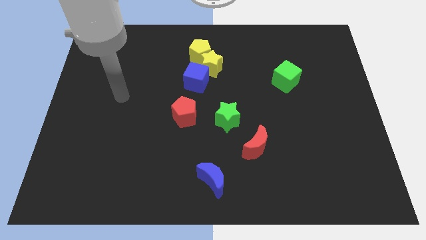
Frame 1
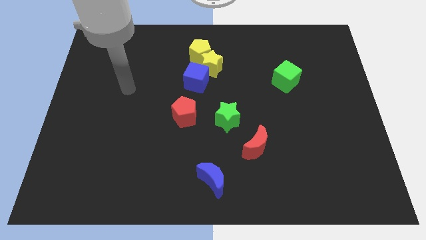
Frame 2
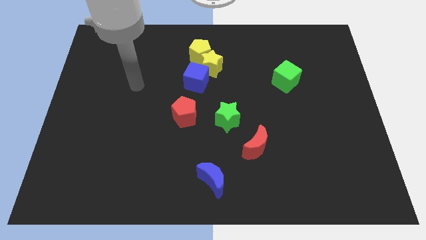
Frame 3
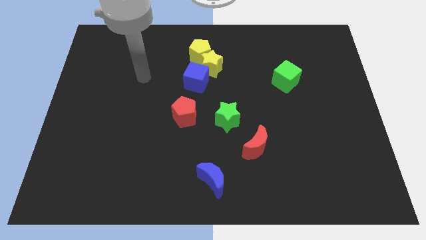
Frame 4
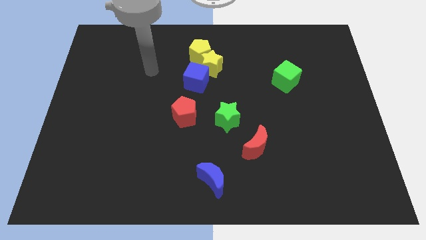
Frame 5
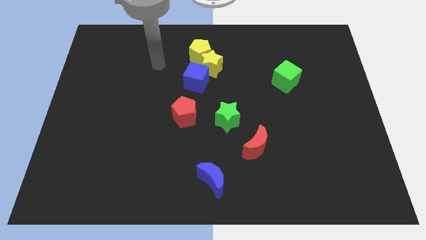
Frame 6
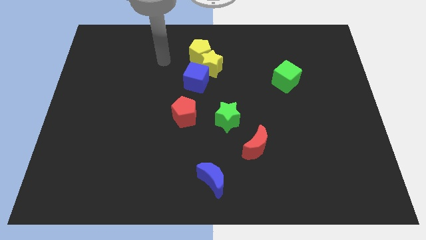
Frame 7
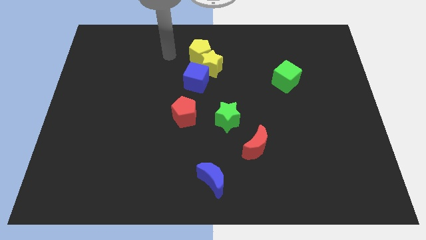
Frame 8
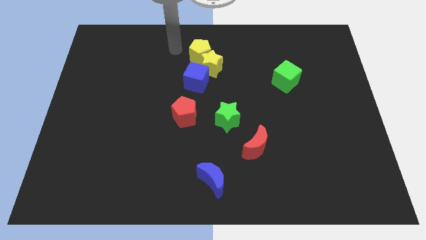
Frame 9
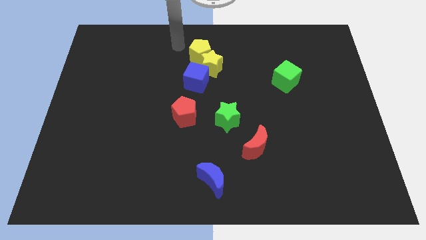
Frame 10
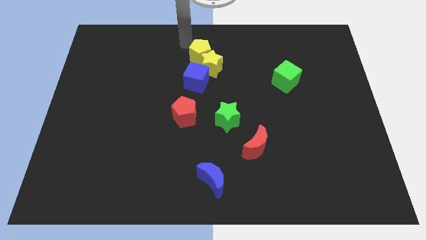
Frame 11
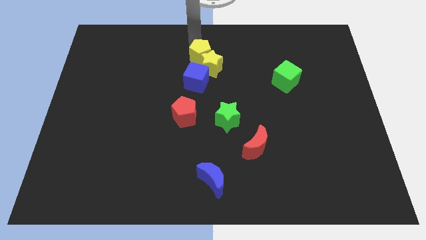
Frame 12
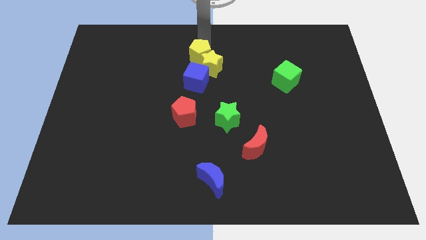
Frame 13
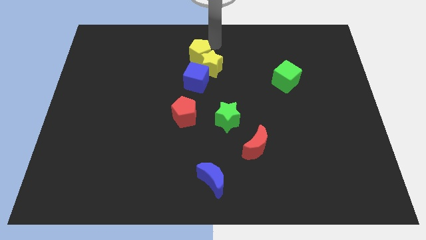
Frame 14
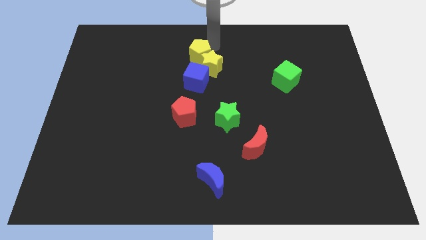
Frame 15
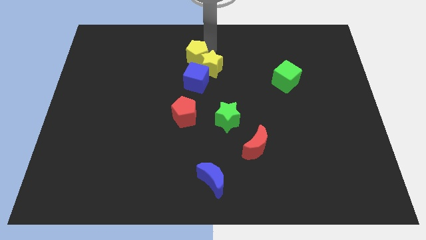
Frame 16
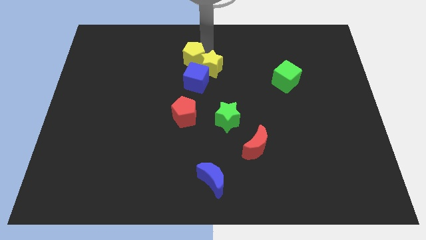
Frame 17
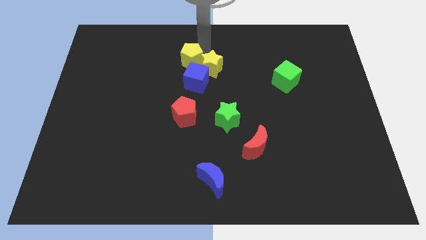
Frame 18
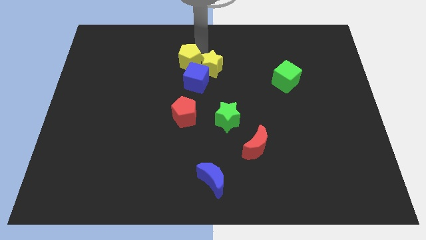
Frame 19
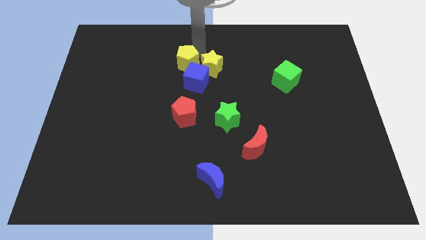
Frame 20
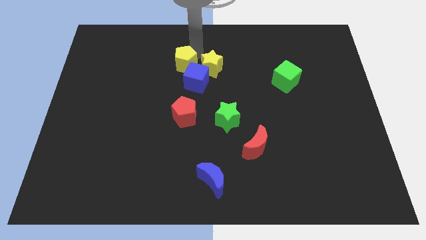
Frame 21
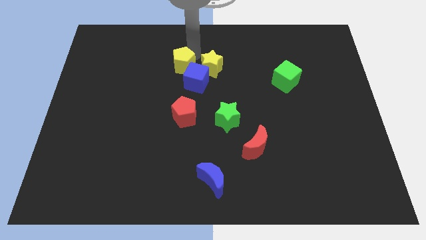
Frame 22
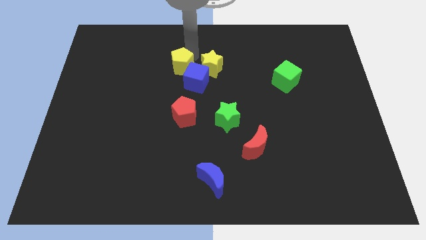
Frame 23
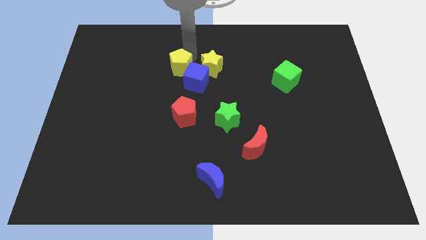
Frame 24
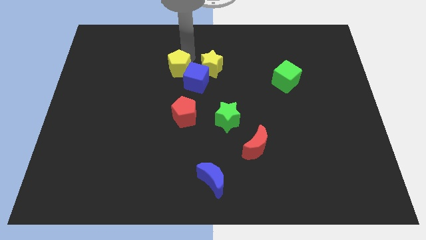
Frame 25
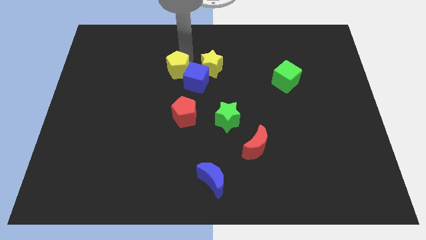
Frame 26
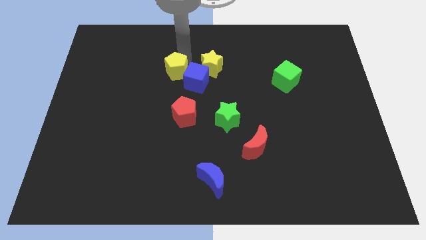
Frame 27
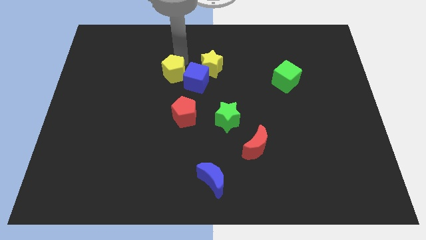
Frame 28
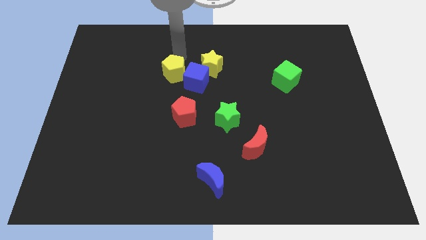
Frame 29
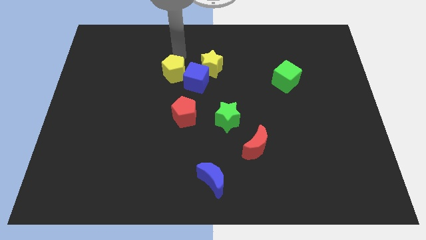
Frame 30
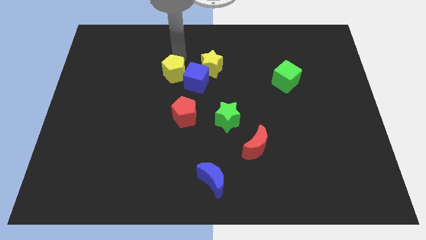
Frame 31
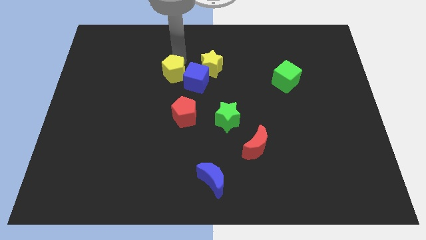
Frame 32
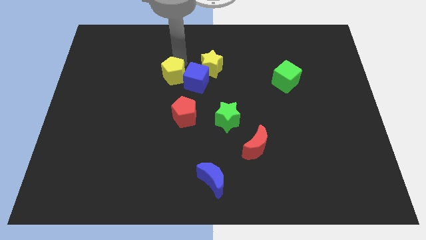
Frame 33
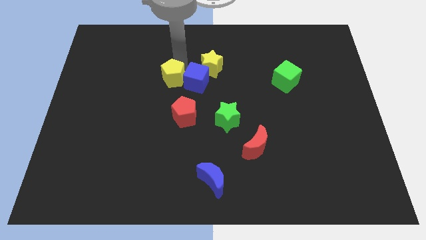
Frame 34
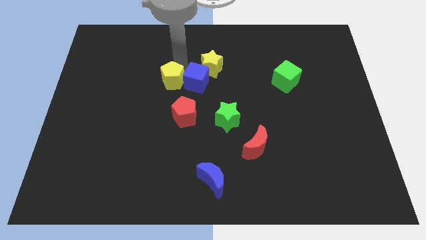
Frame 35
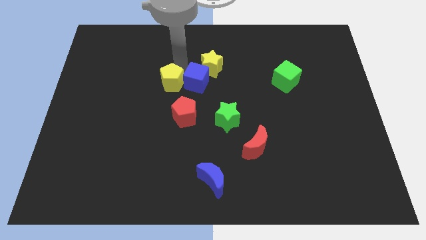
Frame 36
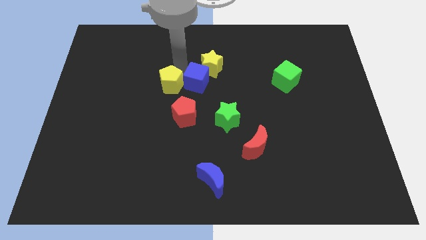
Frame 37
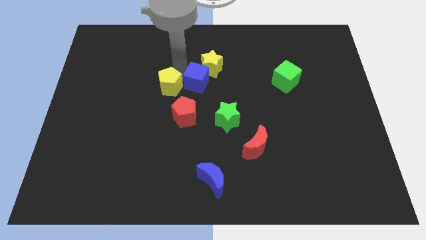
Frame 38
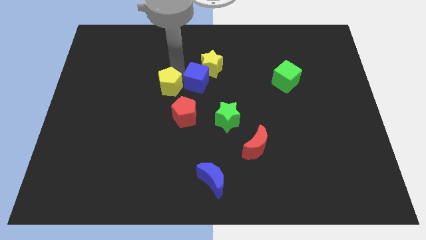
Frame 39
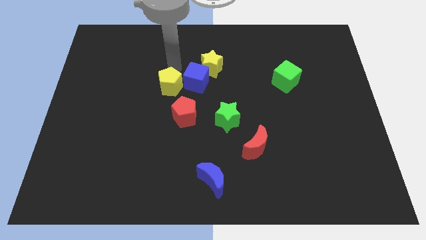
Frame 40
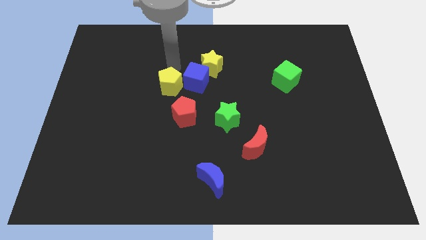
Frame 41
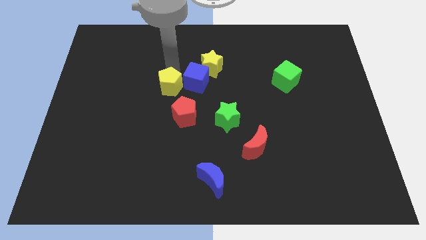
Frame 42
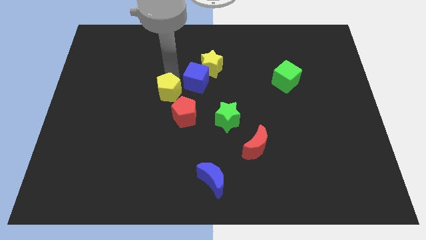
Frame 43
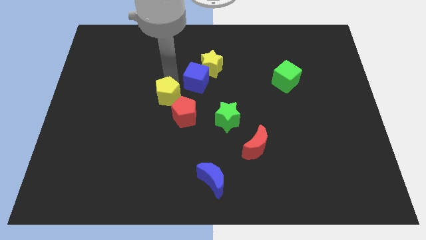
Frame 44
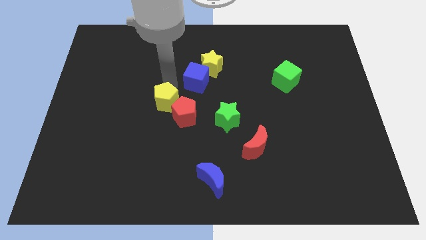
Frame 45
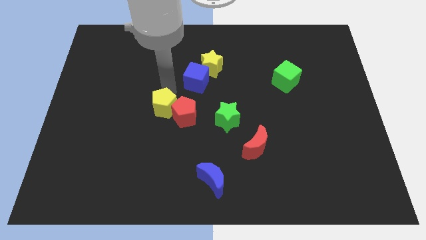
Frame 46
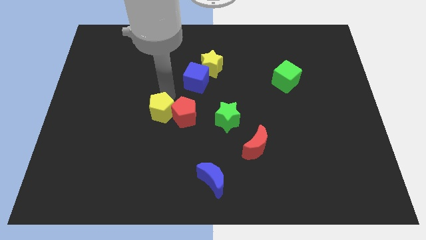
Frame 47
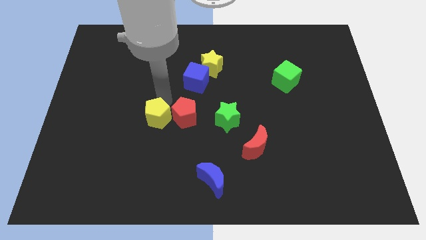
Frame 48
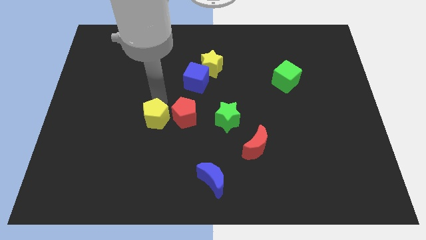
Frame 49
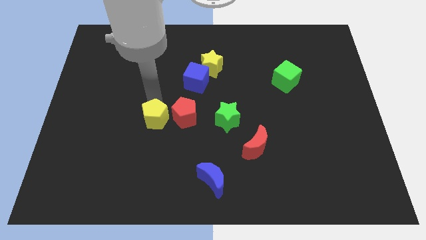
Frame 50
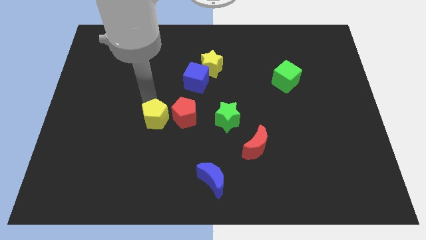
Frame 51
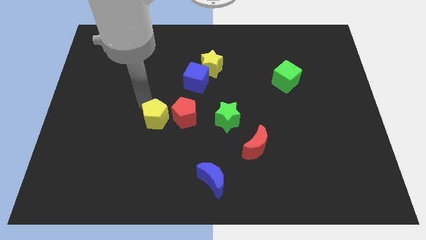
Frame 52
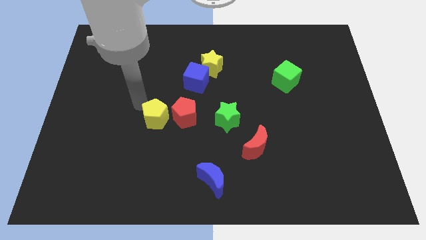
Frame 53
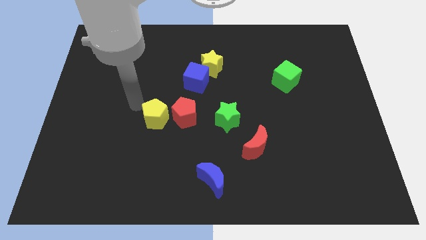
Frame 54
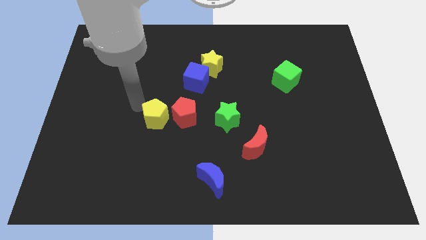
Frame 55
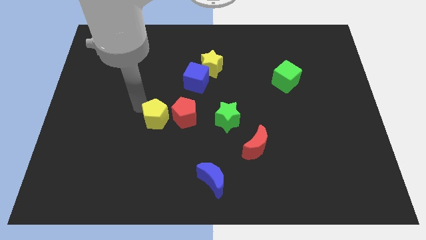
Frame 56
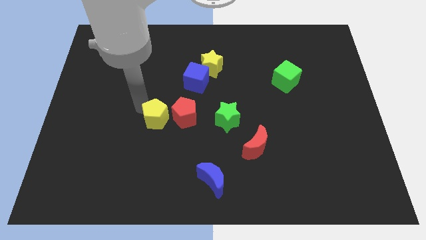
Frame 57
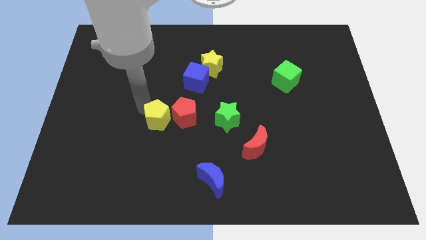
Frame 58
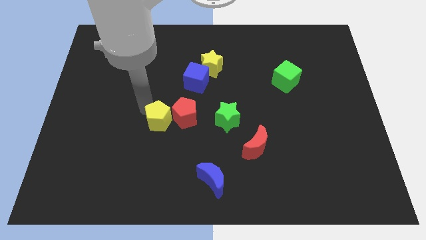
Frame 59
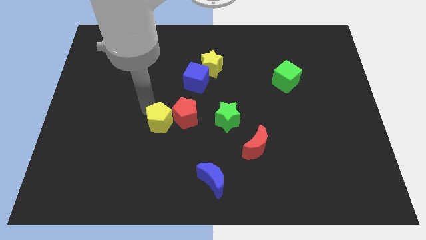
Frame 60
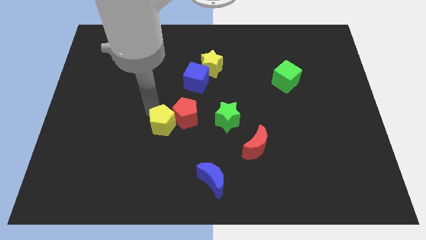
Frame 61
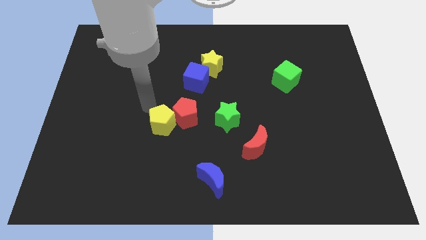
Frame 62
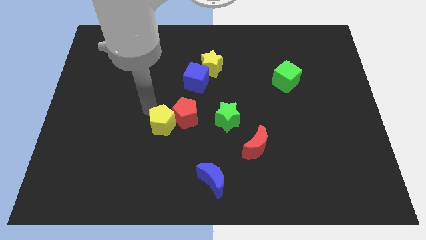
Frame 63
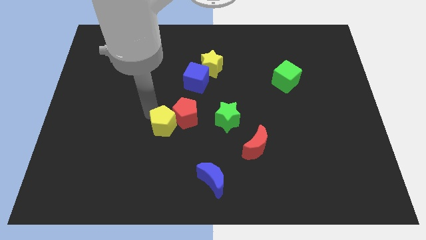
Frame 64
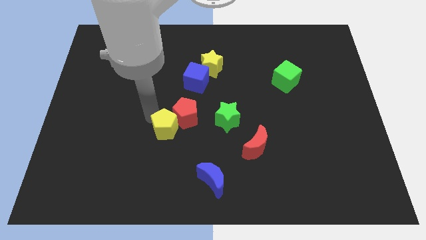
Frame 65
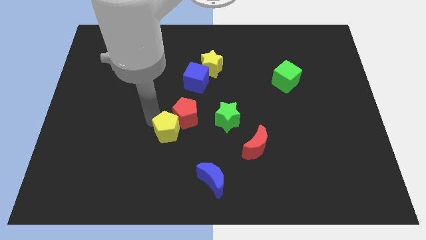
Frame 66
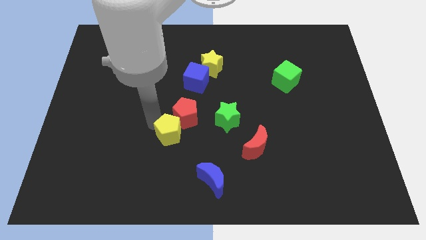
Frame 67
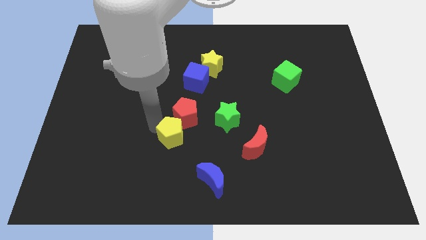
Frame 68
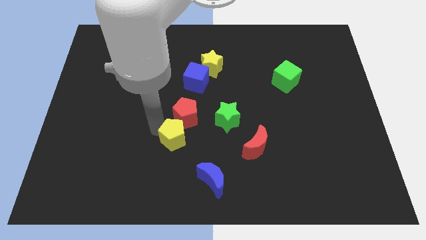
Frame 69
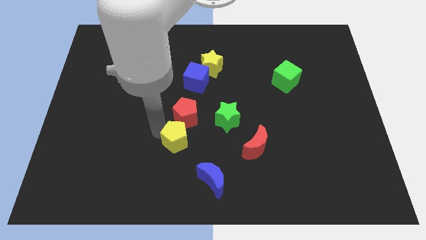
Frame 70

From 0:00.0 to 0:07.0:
put the yellow pentagon to the top left side of the blue moon

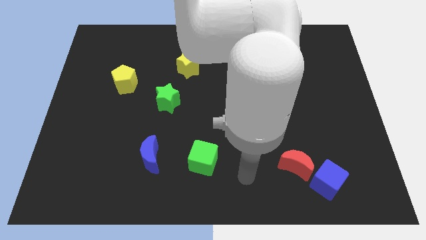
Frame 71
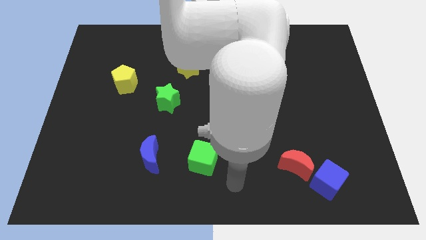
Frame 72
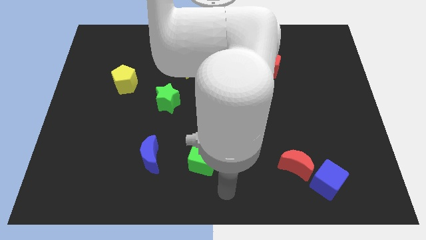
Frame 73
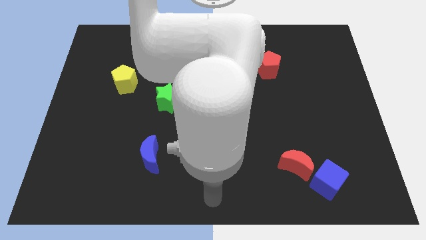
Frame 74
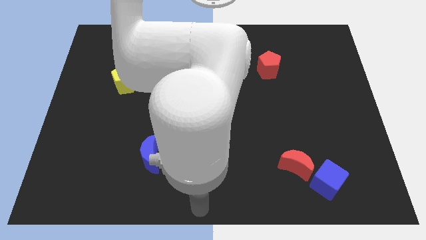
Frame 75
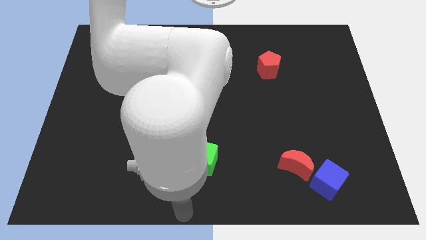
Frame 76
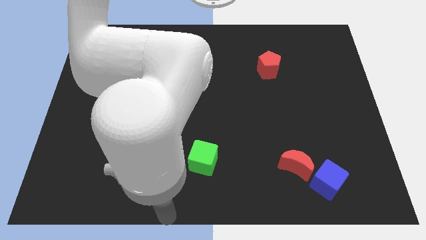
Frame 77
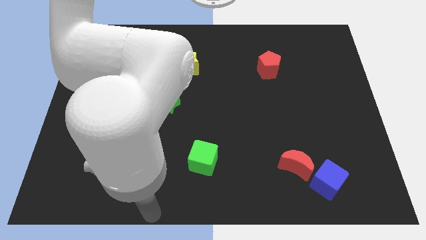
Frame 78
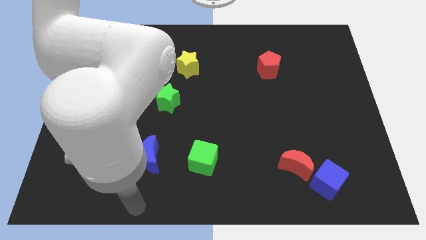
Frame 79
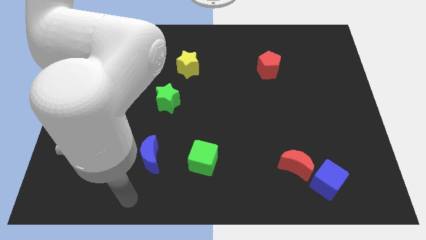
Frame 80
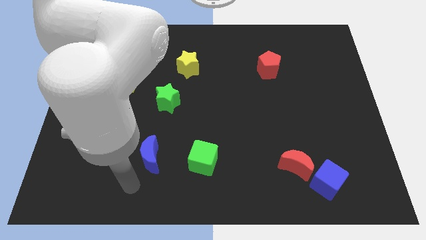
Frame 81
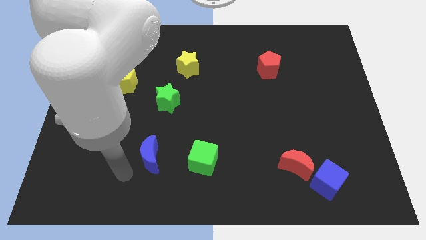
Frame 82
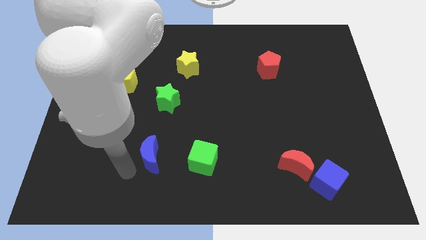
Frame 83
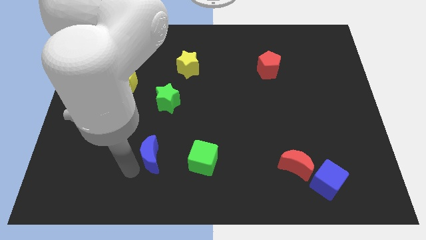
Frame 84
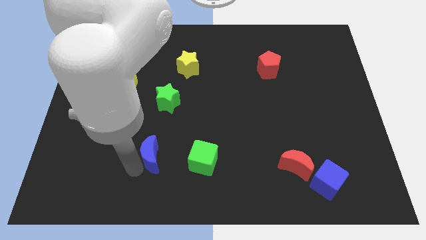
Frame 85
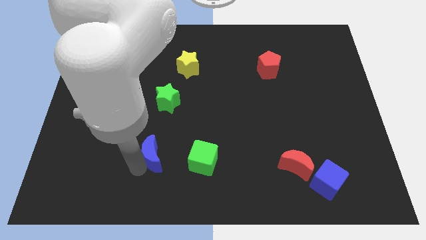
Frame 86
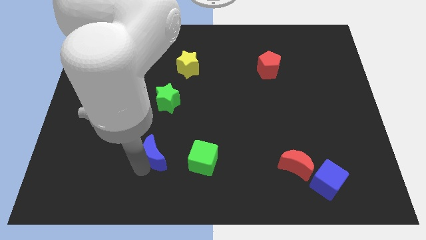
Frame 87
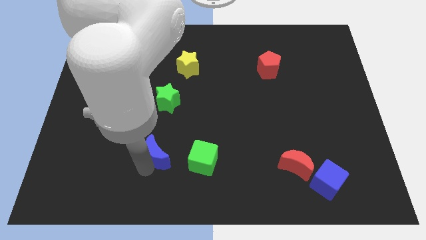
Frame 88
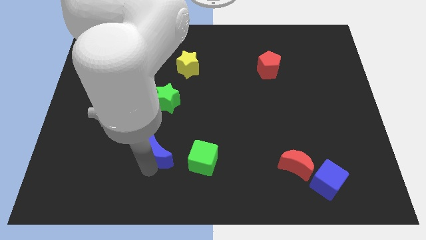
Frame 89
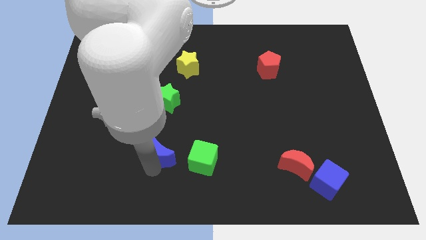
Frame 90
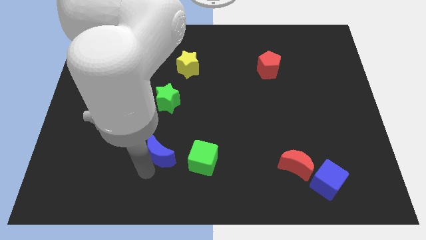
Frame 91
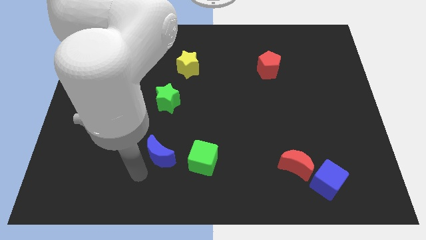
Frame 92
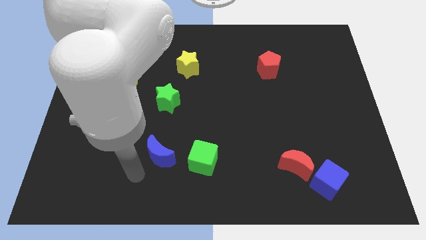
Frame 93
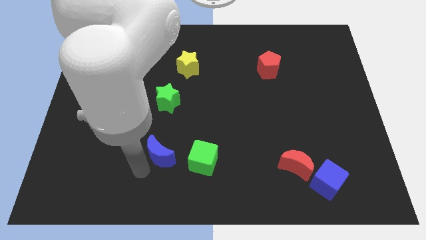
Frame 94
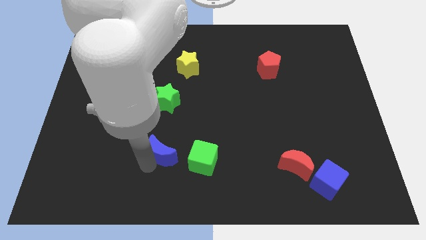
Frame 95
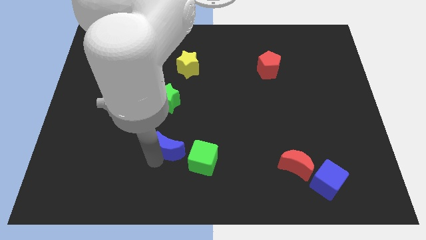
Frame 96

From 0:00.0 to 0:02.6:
slide the blue moon to the top left of the green cube
